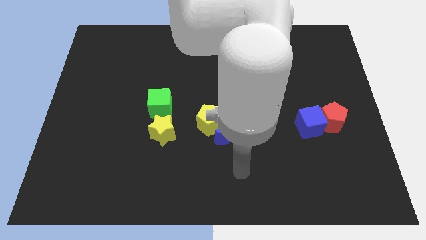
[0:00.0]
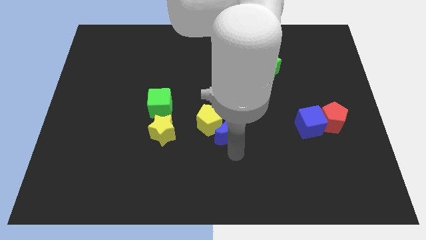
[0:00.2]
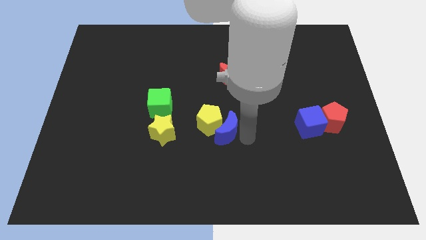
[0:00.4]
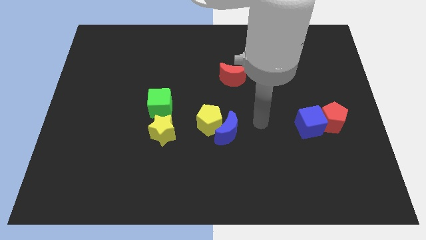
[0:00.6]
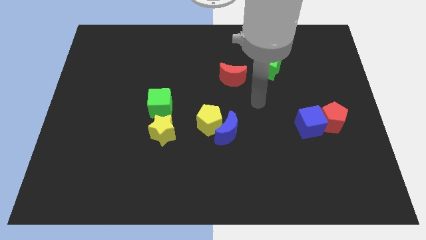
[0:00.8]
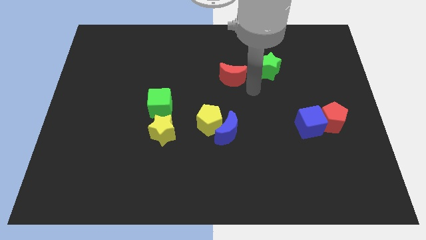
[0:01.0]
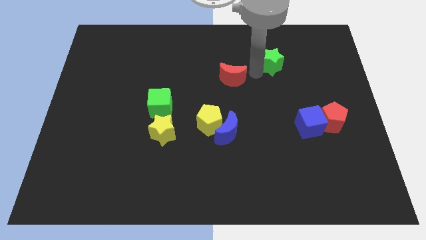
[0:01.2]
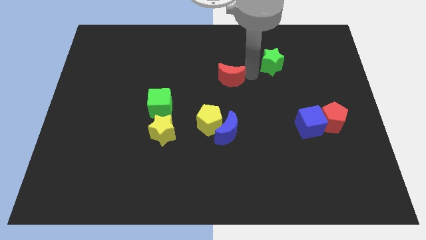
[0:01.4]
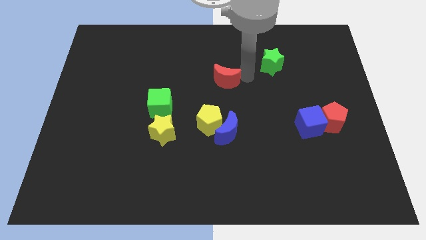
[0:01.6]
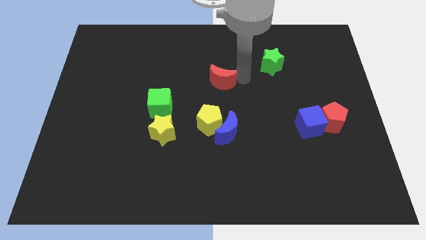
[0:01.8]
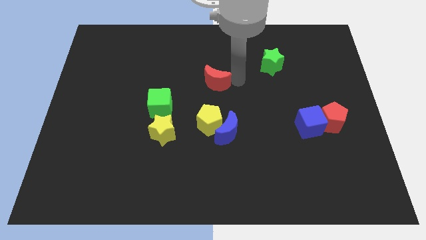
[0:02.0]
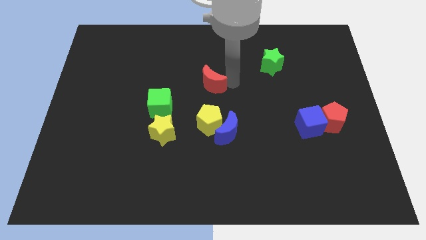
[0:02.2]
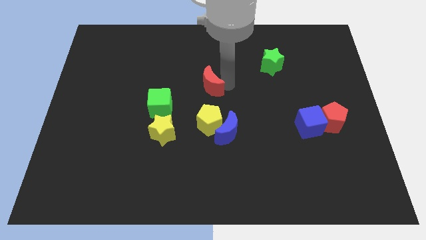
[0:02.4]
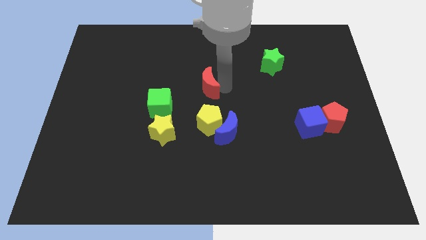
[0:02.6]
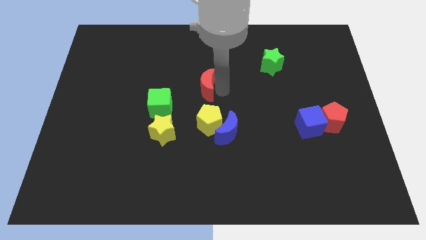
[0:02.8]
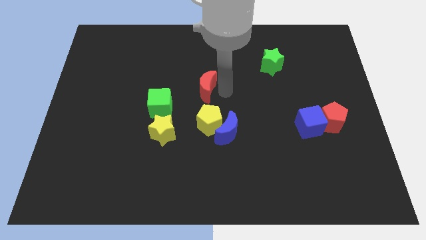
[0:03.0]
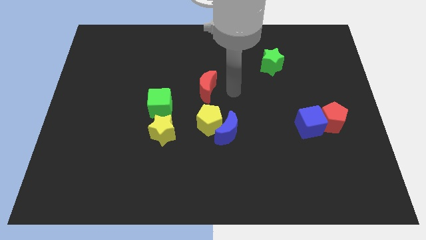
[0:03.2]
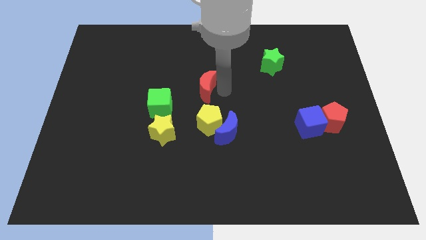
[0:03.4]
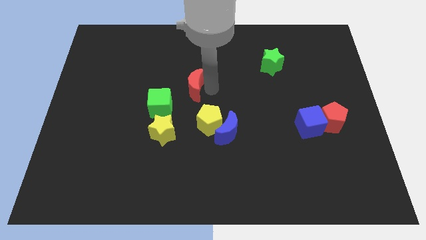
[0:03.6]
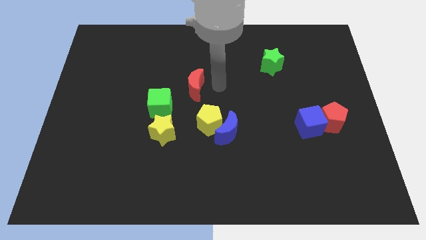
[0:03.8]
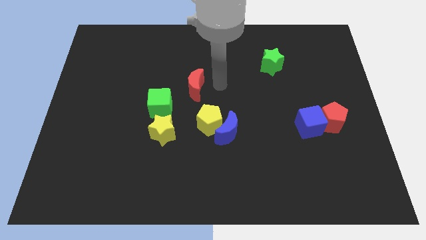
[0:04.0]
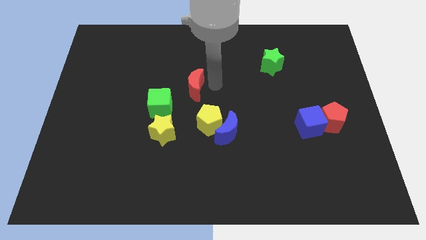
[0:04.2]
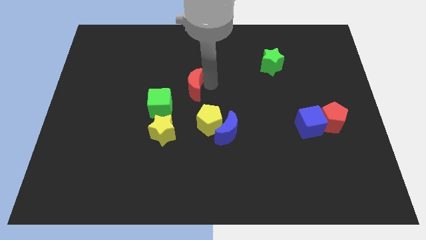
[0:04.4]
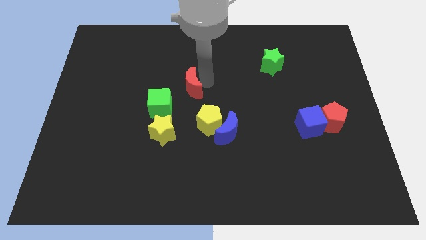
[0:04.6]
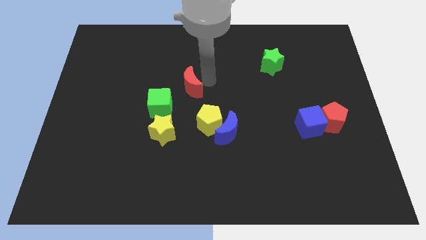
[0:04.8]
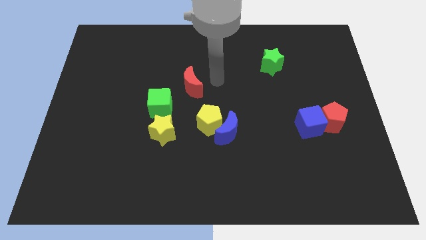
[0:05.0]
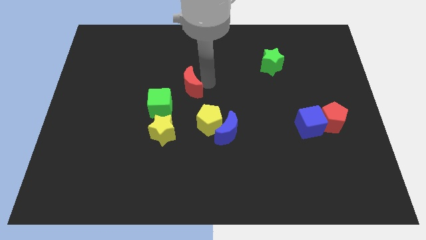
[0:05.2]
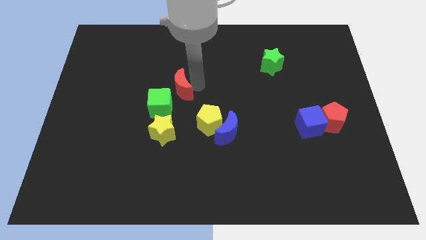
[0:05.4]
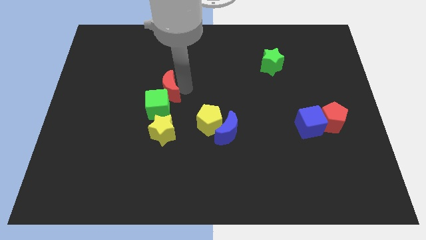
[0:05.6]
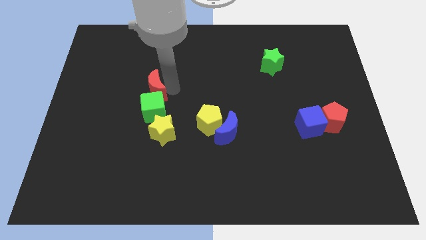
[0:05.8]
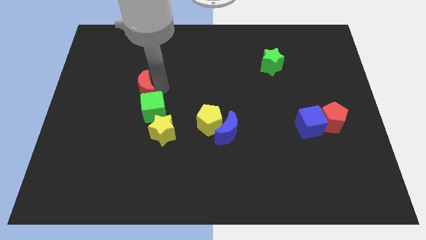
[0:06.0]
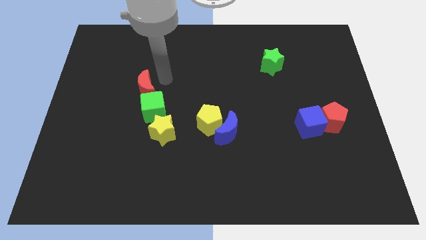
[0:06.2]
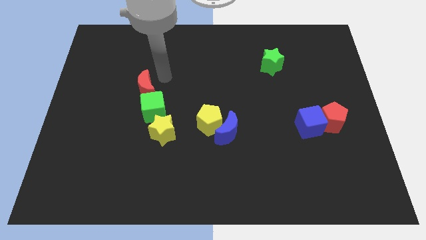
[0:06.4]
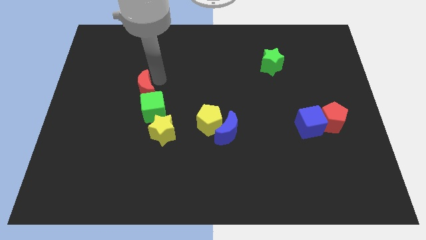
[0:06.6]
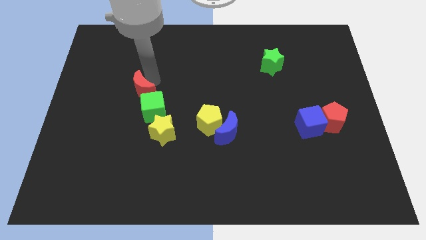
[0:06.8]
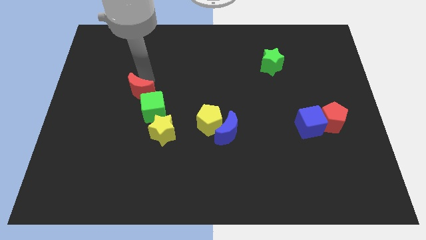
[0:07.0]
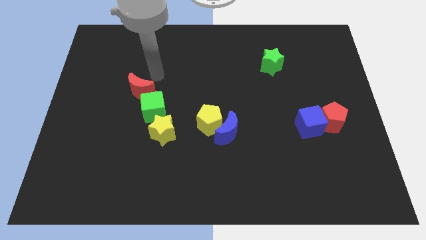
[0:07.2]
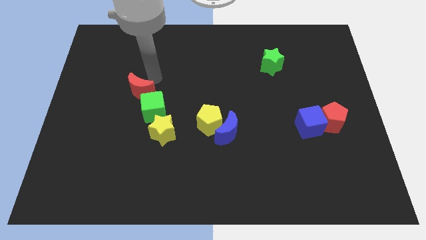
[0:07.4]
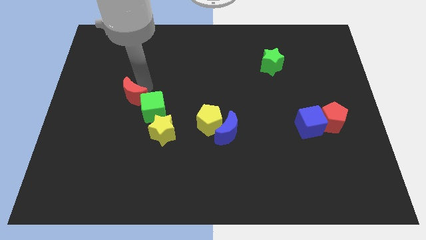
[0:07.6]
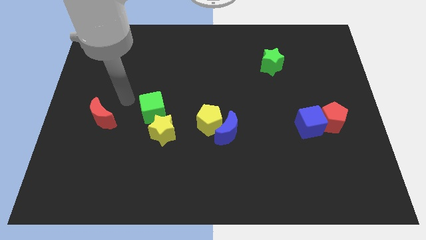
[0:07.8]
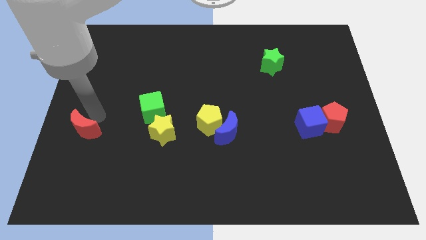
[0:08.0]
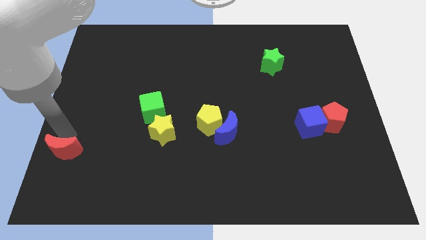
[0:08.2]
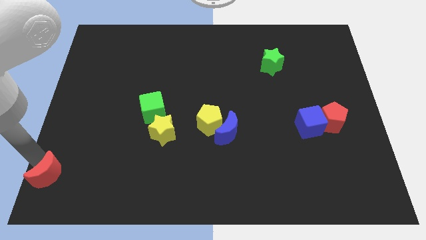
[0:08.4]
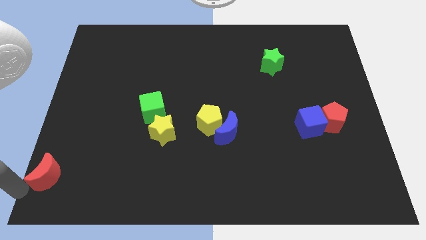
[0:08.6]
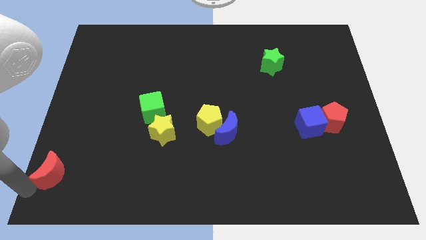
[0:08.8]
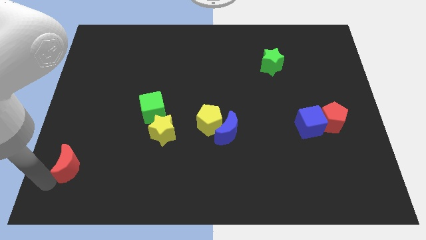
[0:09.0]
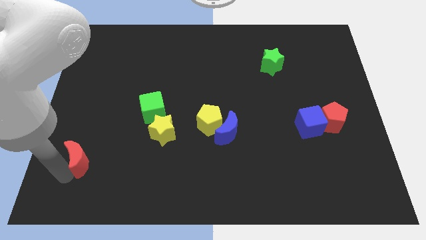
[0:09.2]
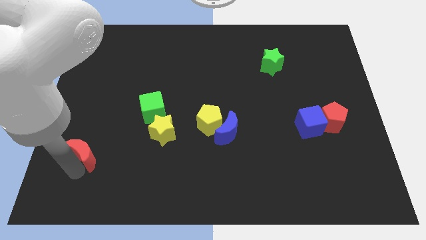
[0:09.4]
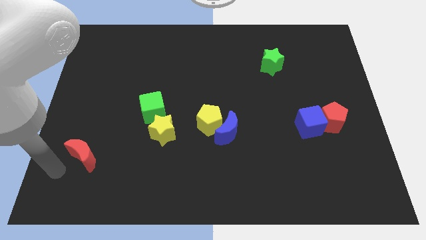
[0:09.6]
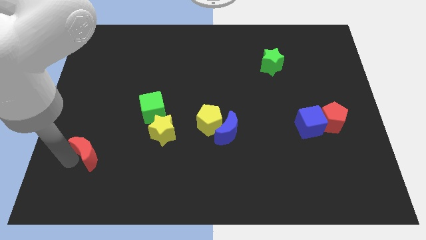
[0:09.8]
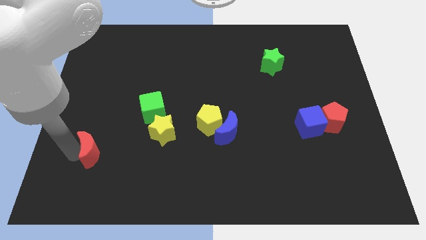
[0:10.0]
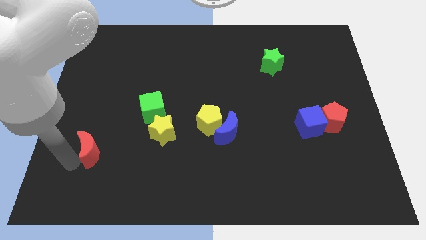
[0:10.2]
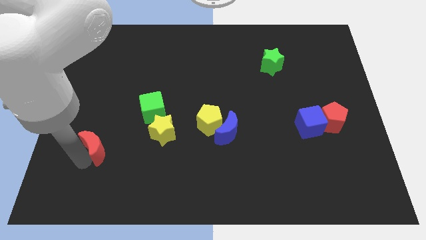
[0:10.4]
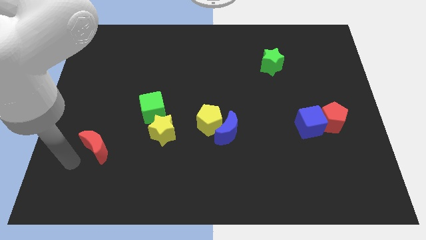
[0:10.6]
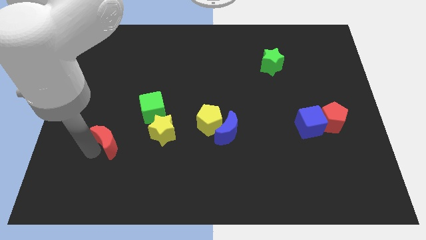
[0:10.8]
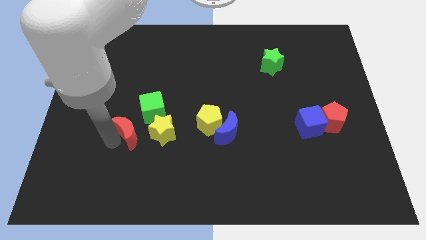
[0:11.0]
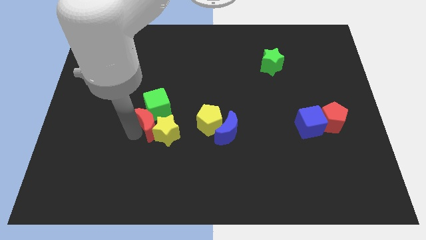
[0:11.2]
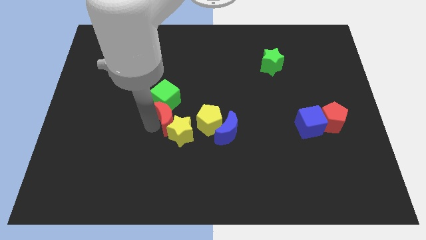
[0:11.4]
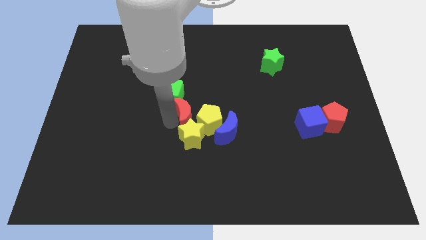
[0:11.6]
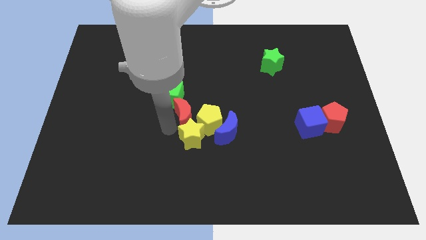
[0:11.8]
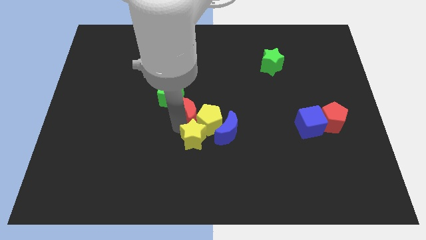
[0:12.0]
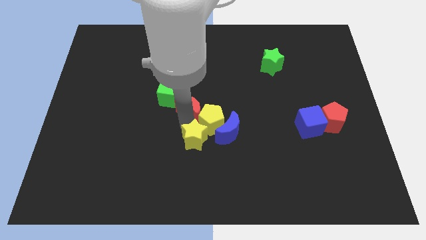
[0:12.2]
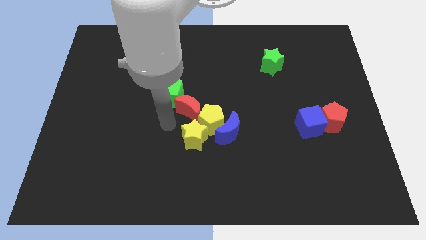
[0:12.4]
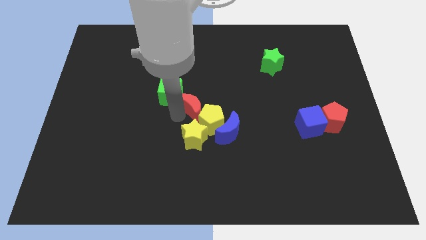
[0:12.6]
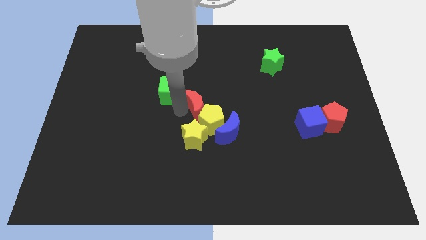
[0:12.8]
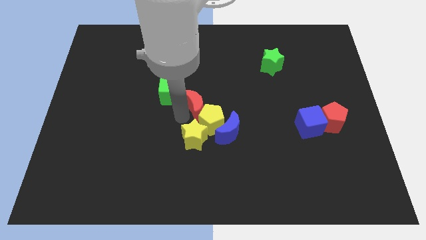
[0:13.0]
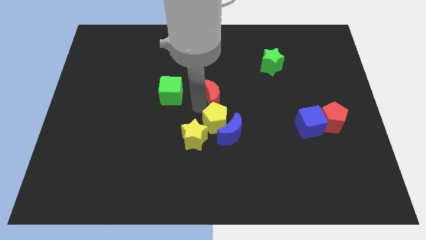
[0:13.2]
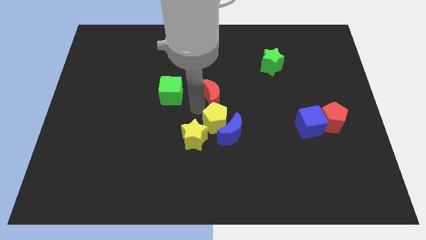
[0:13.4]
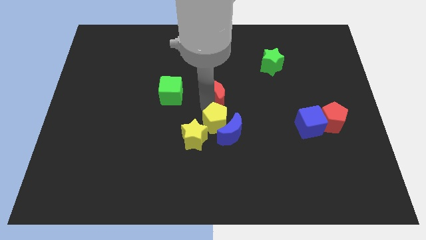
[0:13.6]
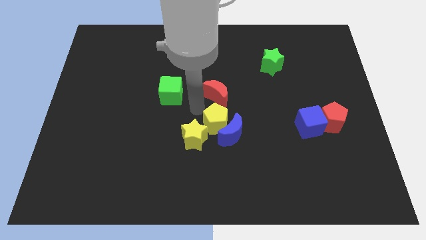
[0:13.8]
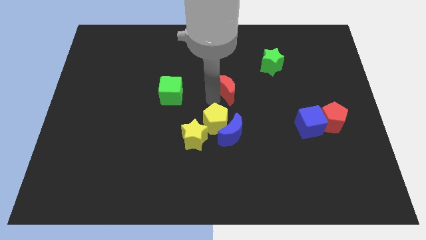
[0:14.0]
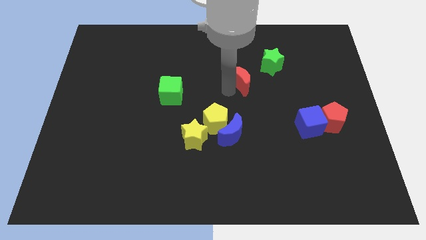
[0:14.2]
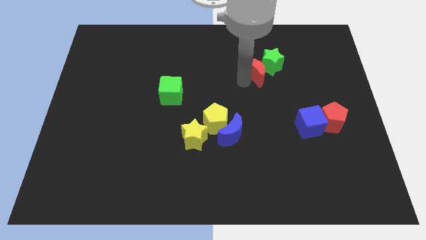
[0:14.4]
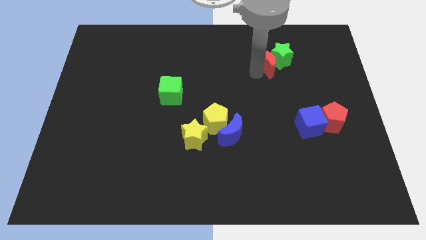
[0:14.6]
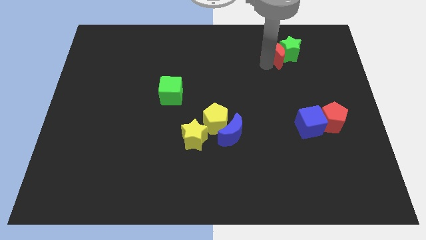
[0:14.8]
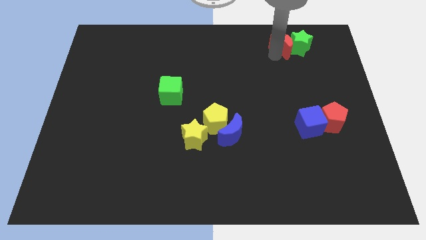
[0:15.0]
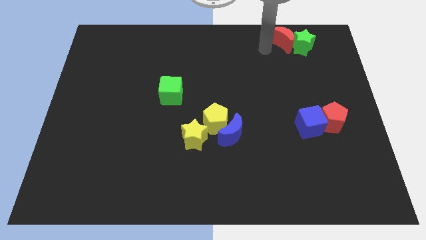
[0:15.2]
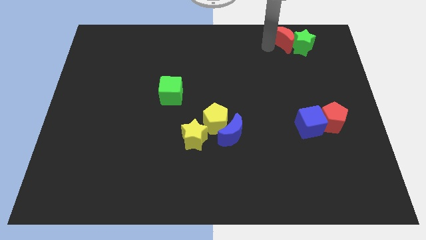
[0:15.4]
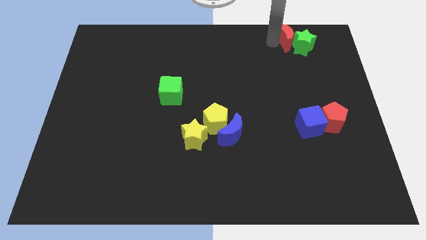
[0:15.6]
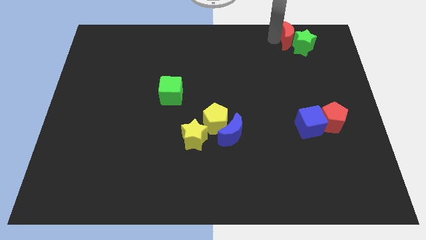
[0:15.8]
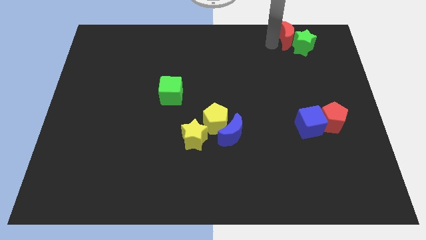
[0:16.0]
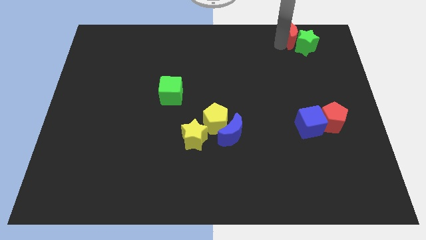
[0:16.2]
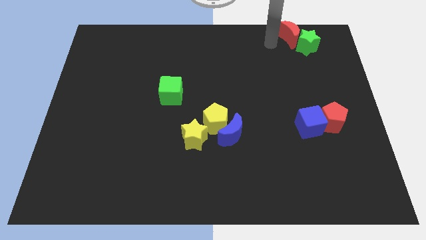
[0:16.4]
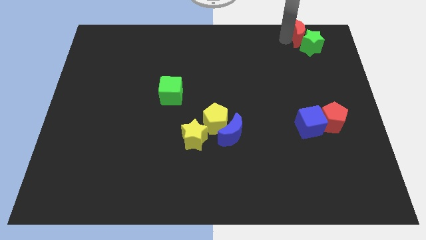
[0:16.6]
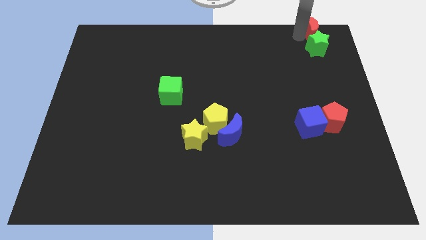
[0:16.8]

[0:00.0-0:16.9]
slide the red moon to the top right corner
